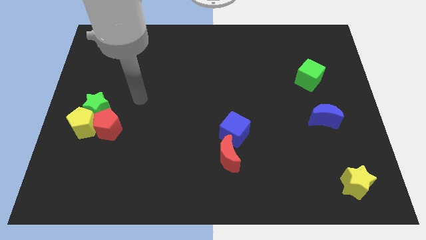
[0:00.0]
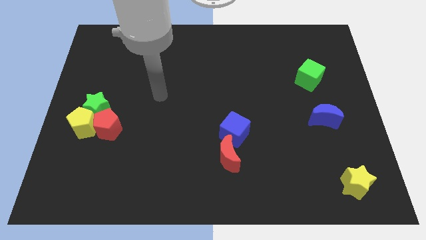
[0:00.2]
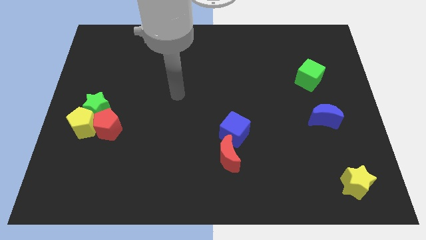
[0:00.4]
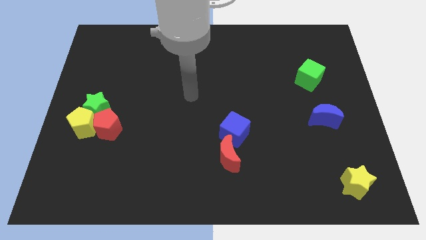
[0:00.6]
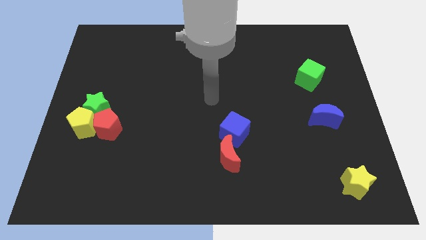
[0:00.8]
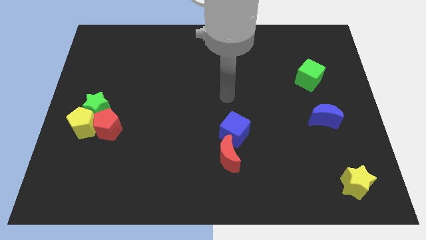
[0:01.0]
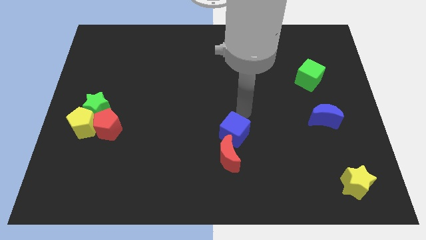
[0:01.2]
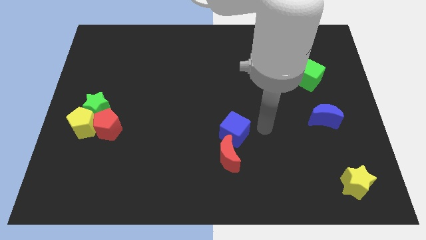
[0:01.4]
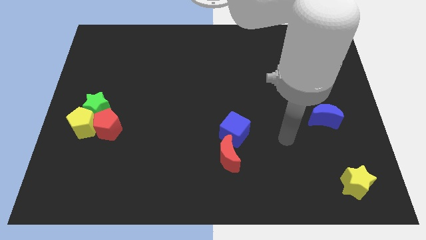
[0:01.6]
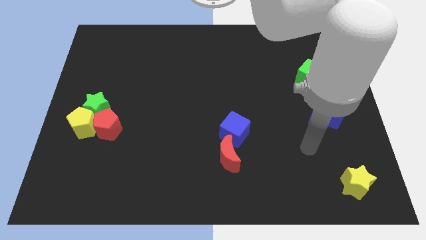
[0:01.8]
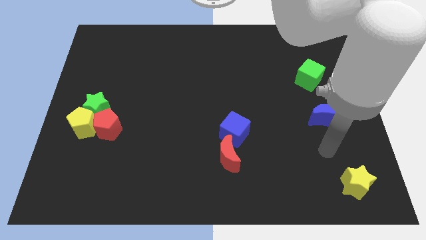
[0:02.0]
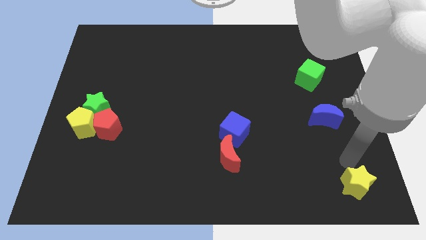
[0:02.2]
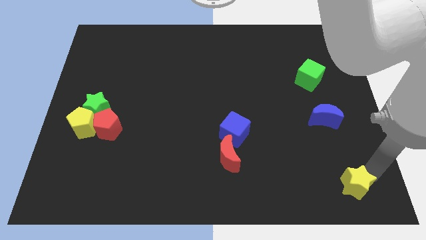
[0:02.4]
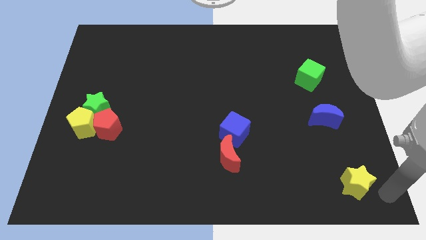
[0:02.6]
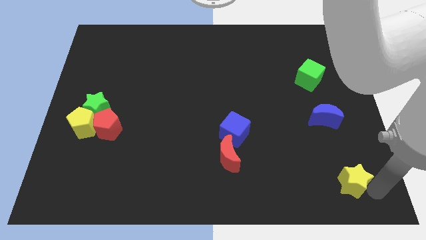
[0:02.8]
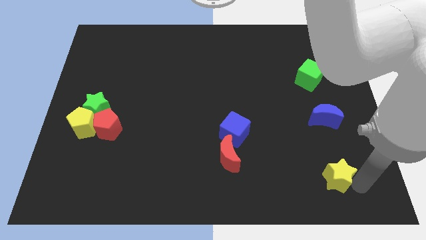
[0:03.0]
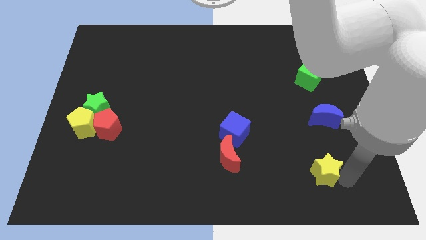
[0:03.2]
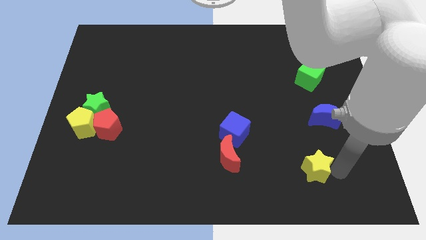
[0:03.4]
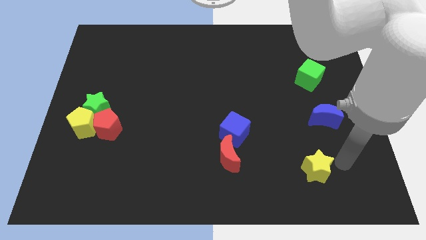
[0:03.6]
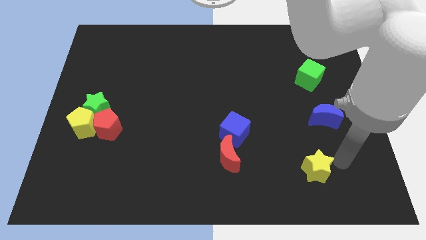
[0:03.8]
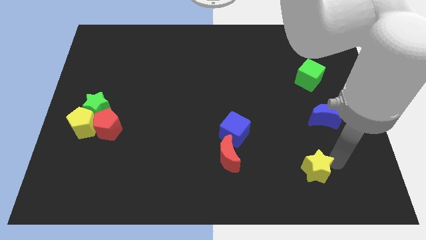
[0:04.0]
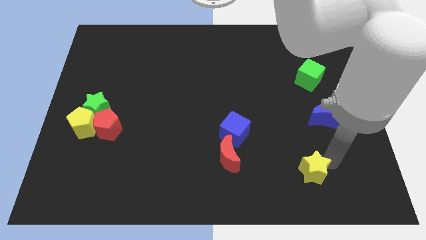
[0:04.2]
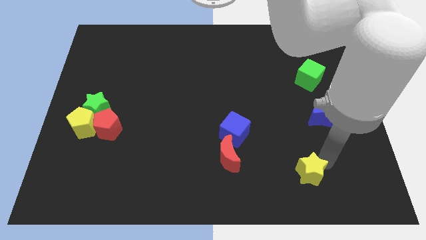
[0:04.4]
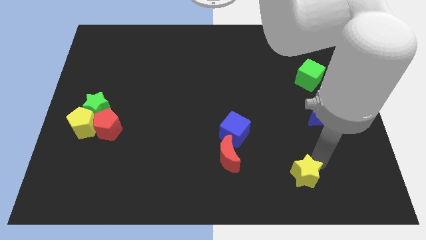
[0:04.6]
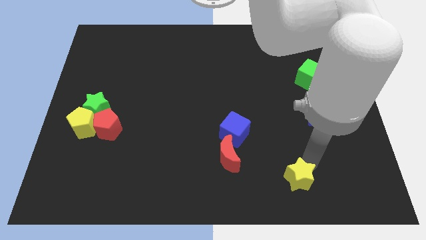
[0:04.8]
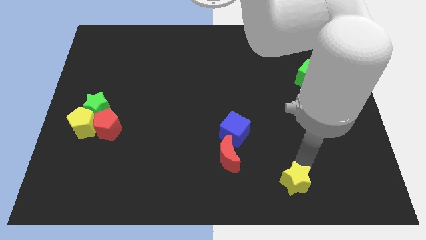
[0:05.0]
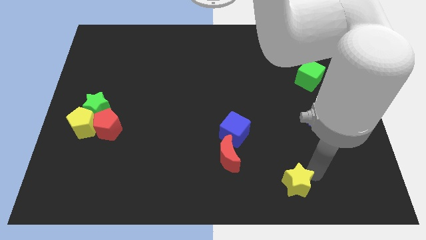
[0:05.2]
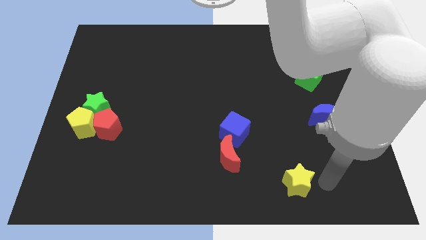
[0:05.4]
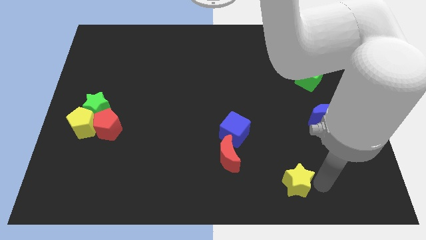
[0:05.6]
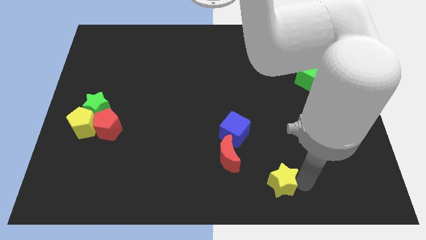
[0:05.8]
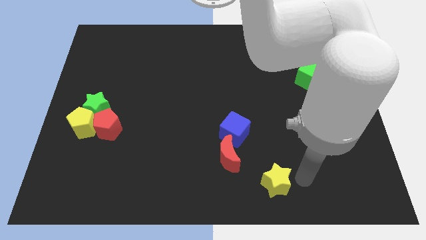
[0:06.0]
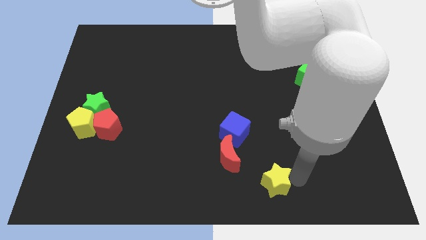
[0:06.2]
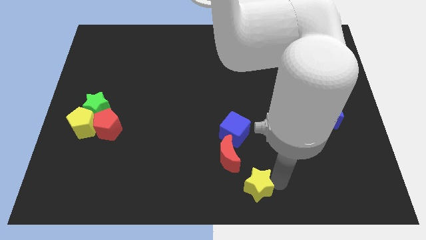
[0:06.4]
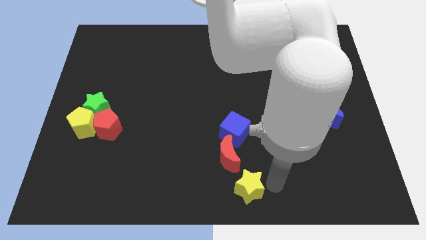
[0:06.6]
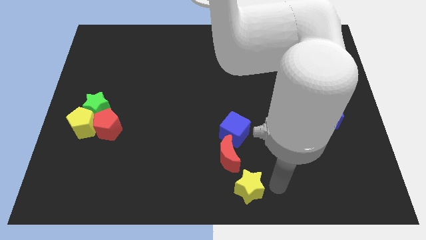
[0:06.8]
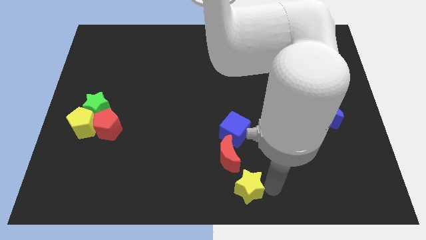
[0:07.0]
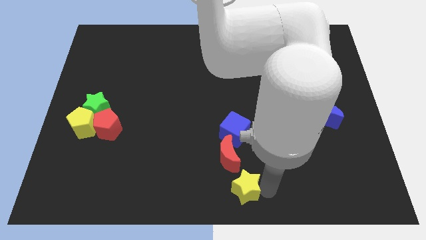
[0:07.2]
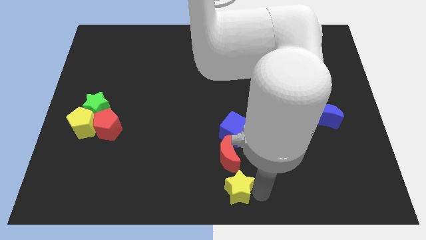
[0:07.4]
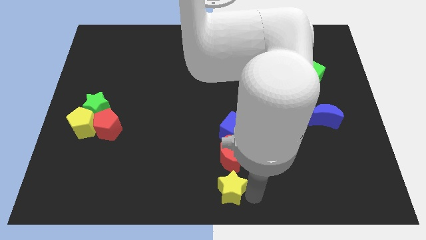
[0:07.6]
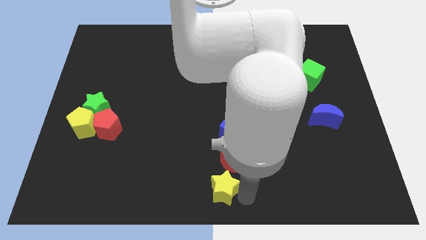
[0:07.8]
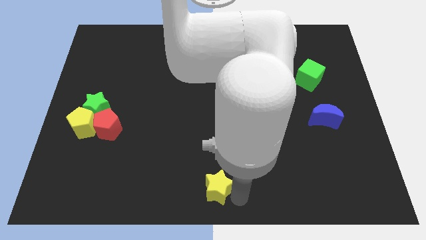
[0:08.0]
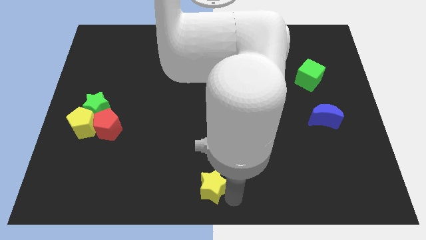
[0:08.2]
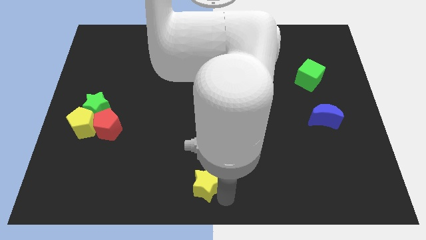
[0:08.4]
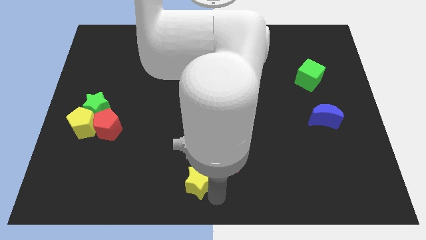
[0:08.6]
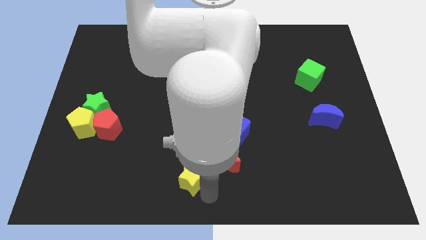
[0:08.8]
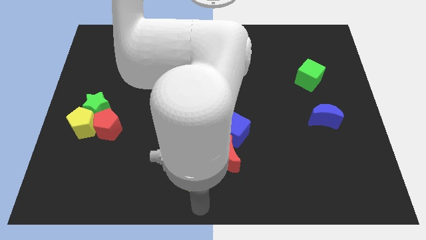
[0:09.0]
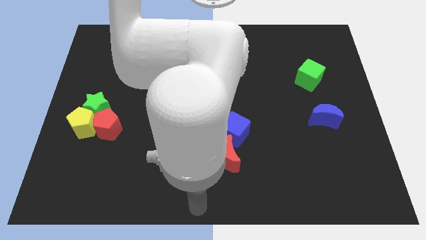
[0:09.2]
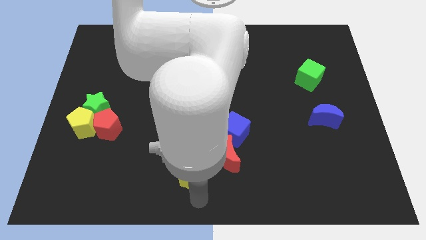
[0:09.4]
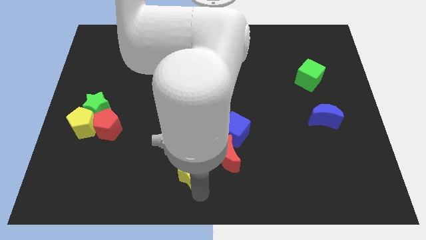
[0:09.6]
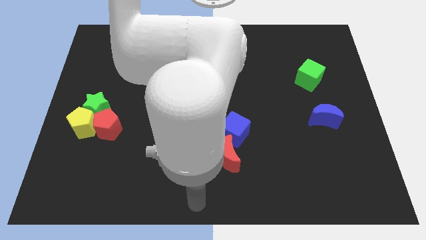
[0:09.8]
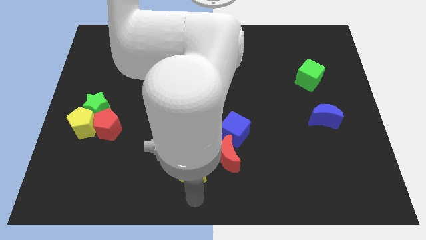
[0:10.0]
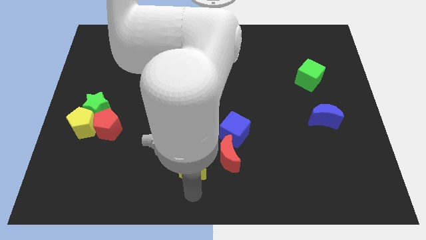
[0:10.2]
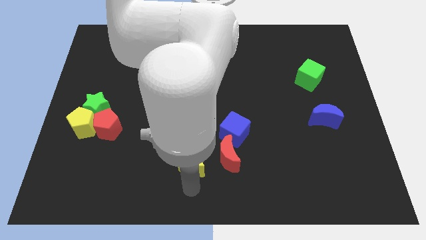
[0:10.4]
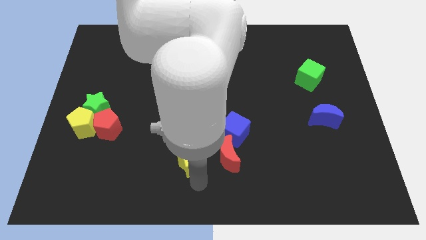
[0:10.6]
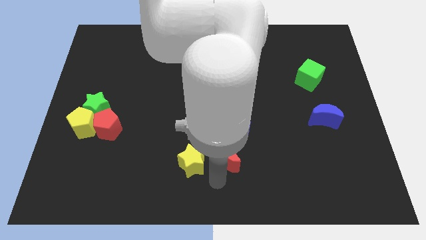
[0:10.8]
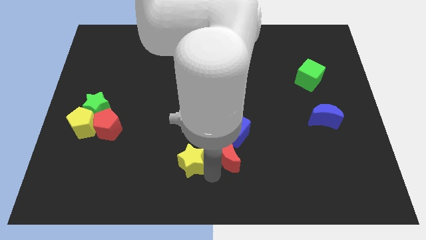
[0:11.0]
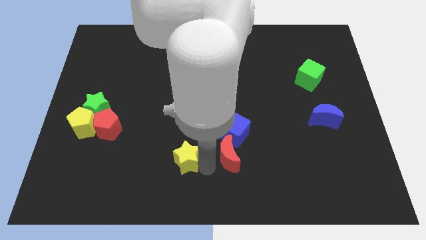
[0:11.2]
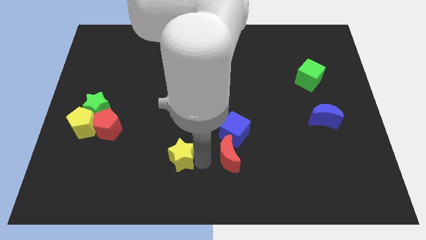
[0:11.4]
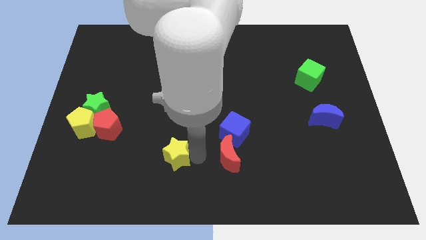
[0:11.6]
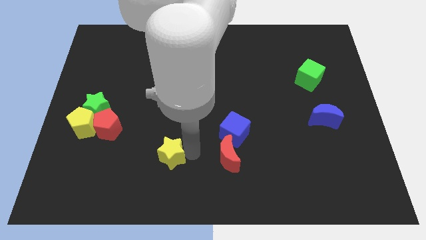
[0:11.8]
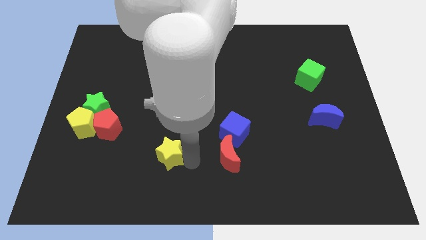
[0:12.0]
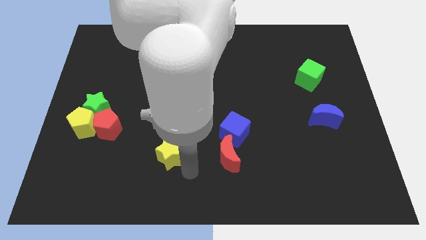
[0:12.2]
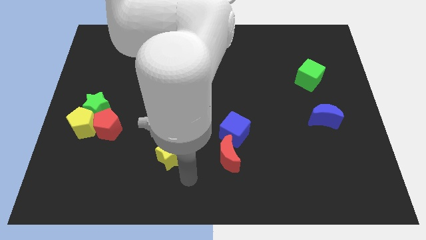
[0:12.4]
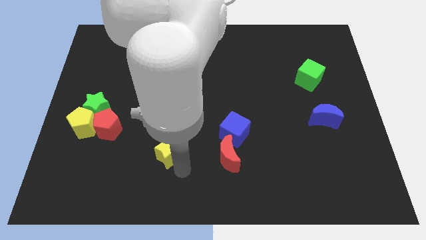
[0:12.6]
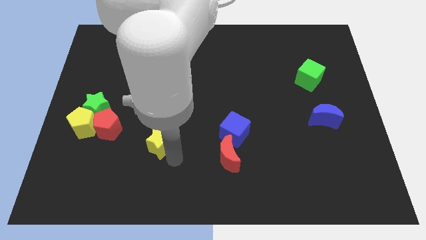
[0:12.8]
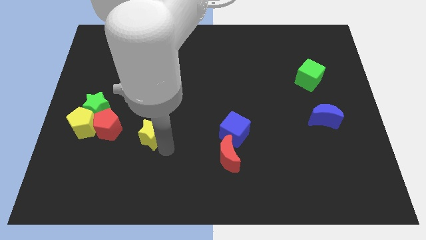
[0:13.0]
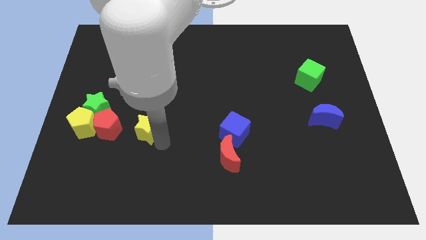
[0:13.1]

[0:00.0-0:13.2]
slide the yellow star right of the yellow pentagon
